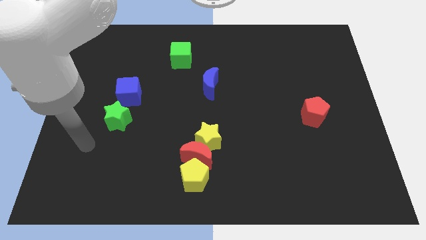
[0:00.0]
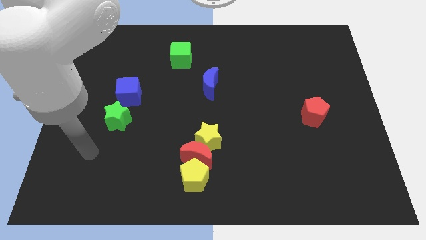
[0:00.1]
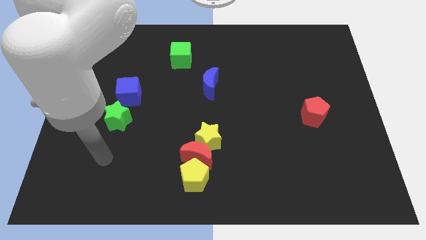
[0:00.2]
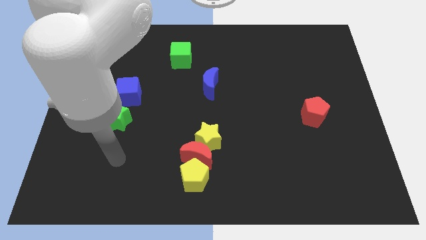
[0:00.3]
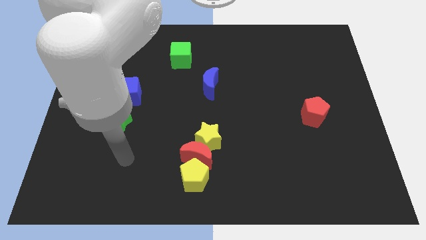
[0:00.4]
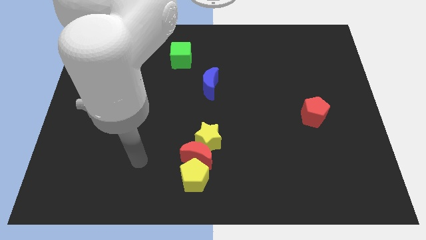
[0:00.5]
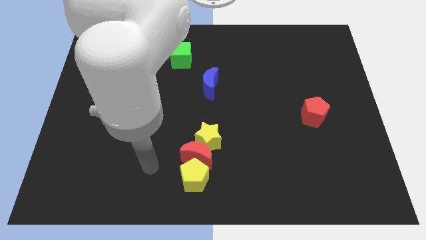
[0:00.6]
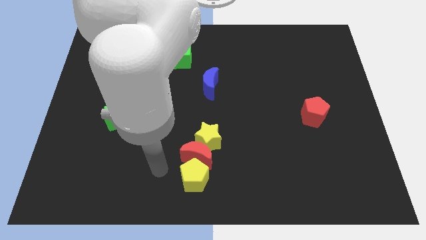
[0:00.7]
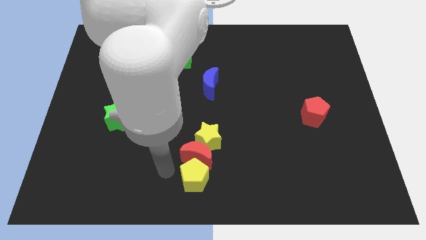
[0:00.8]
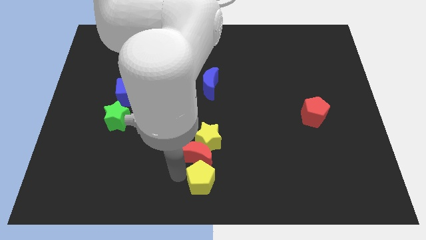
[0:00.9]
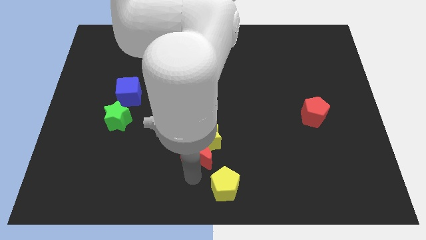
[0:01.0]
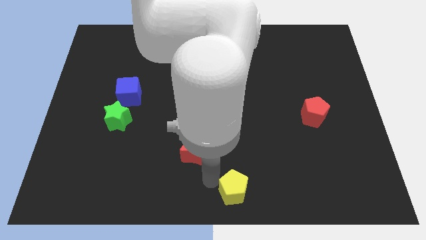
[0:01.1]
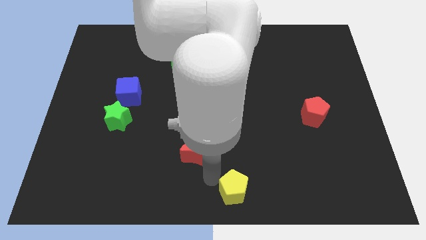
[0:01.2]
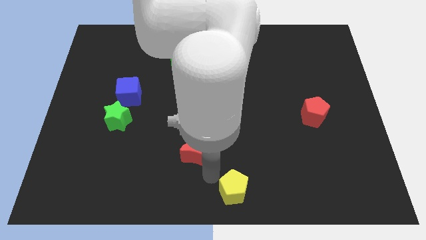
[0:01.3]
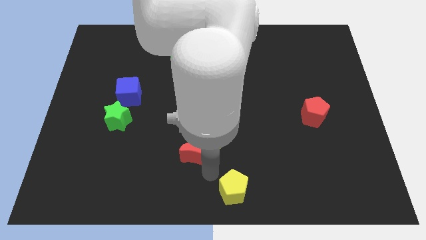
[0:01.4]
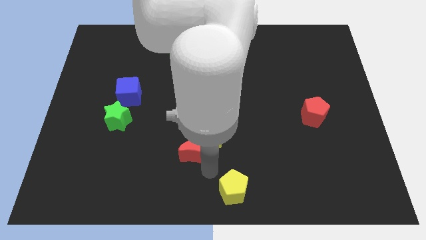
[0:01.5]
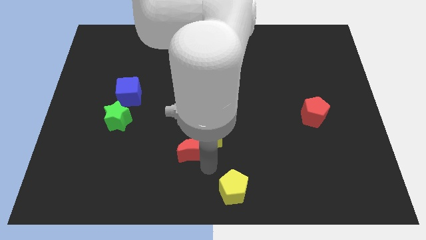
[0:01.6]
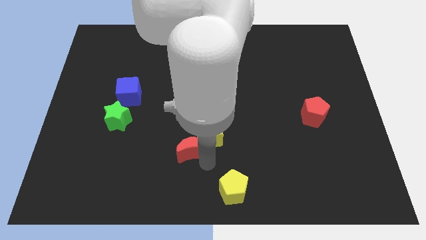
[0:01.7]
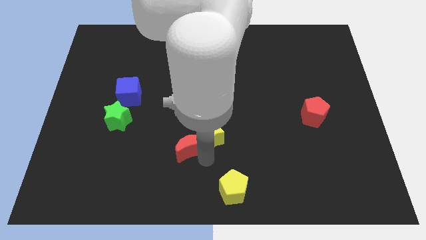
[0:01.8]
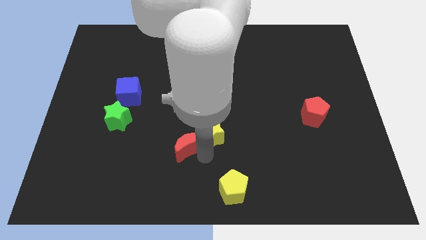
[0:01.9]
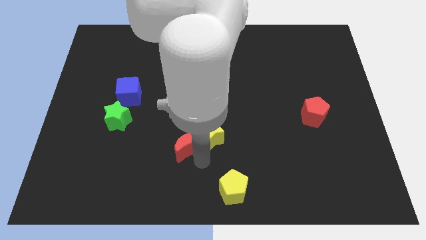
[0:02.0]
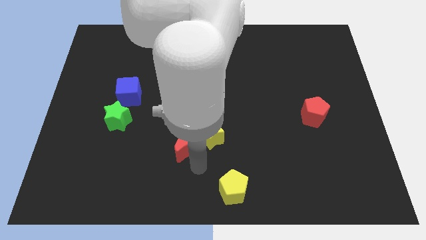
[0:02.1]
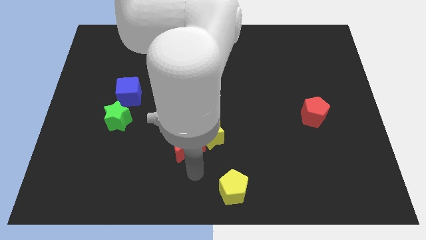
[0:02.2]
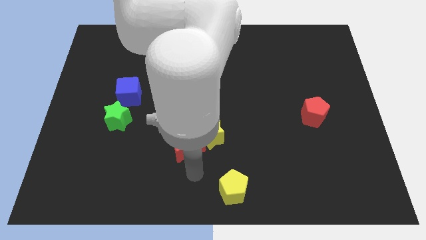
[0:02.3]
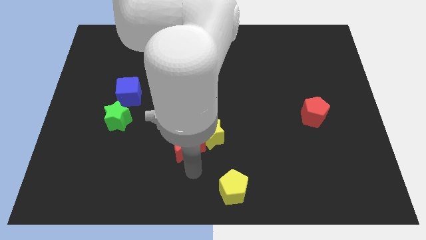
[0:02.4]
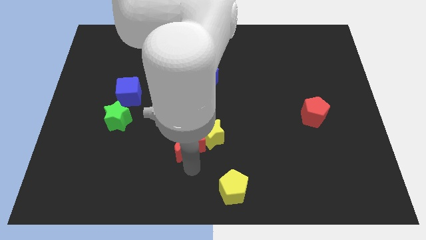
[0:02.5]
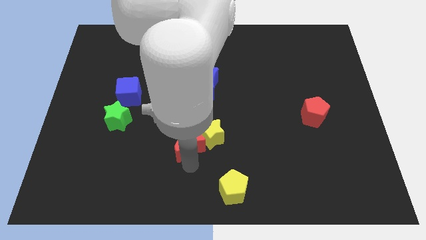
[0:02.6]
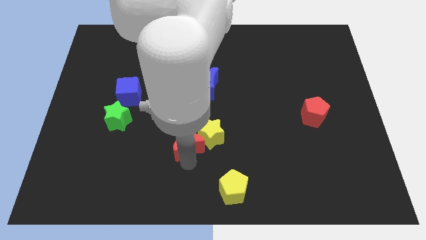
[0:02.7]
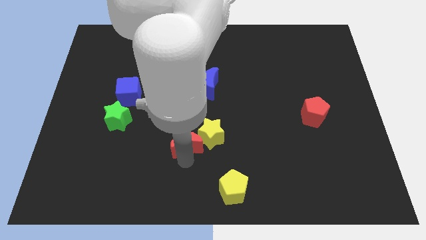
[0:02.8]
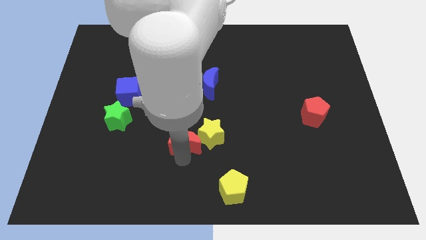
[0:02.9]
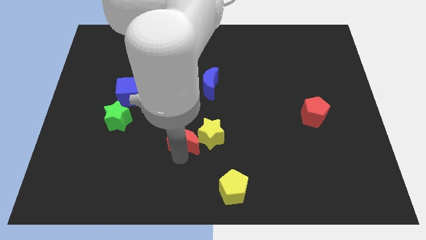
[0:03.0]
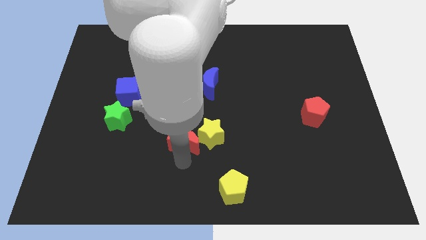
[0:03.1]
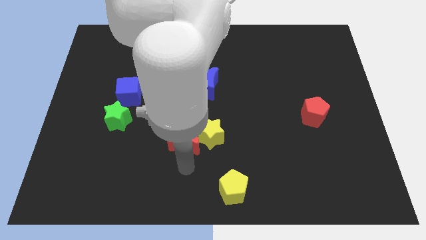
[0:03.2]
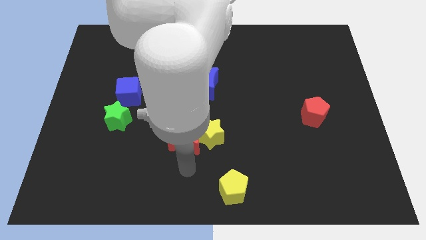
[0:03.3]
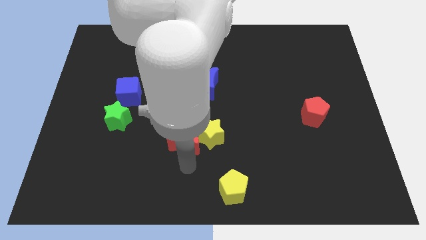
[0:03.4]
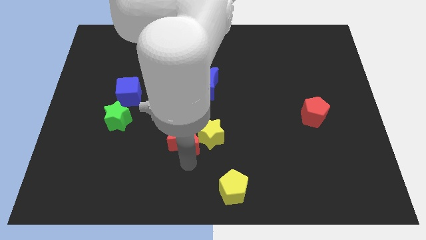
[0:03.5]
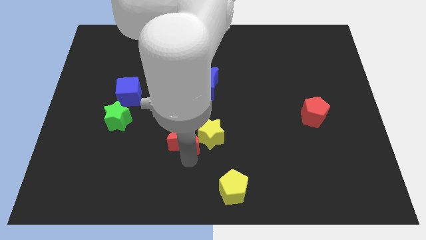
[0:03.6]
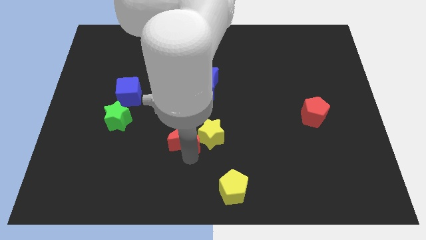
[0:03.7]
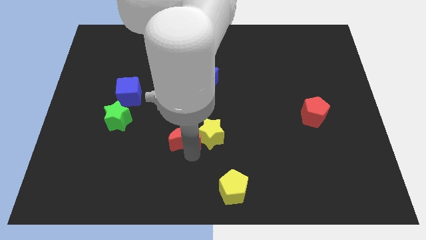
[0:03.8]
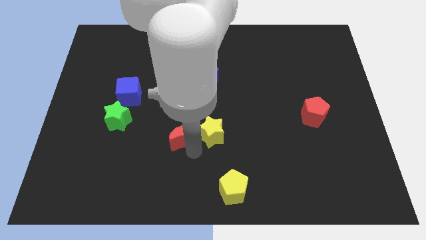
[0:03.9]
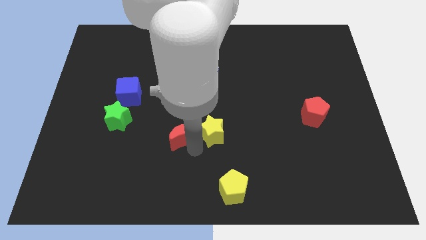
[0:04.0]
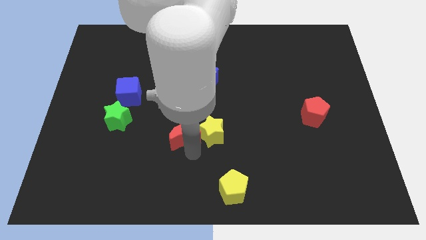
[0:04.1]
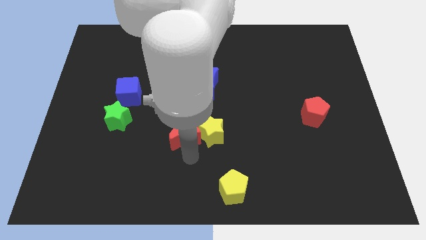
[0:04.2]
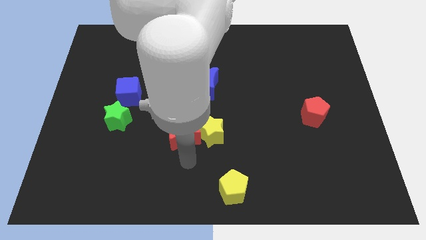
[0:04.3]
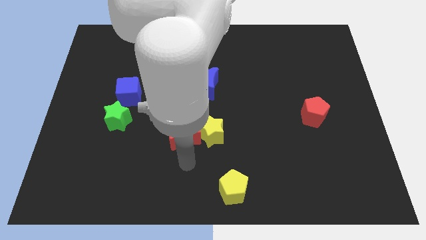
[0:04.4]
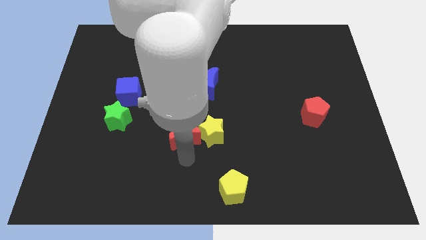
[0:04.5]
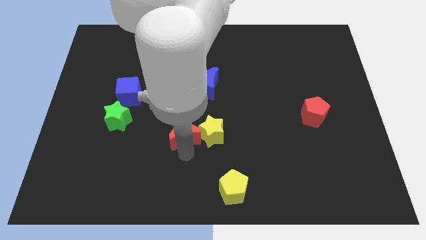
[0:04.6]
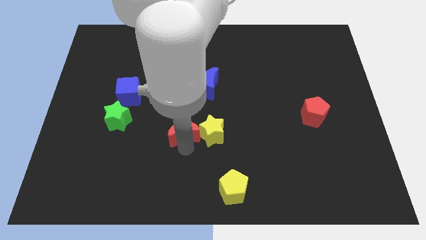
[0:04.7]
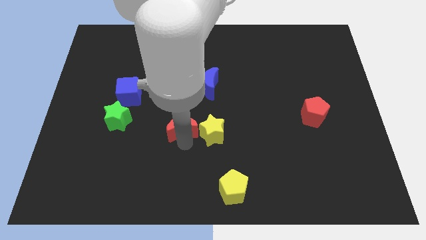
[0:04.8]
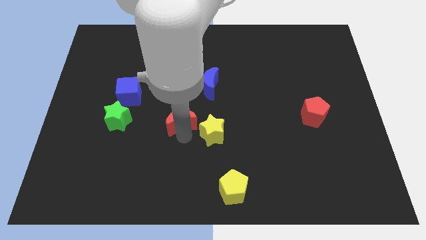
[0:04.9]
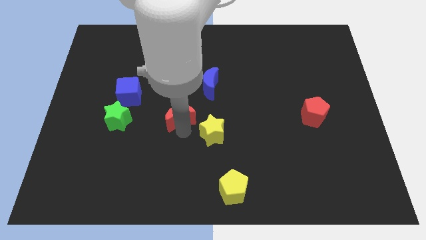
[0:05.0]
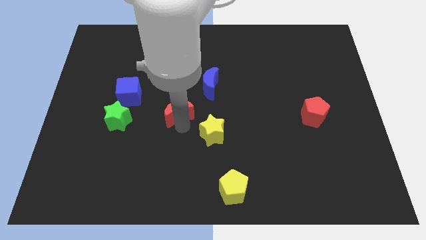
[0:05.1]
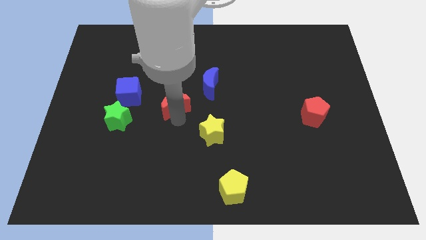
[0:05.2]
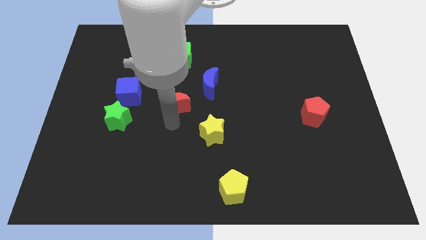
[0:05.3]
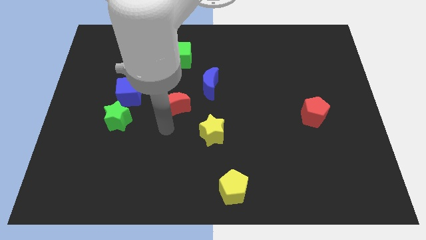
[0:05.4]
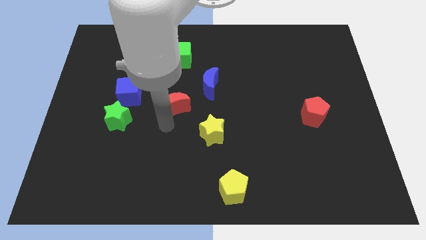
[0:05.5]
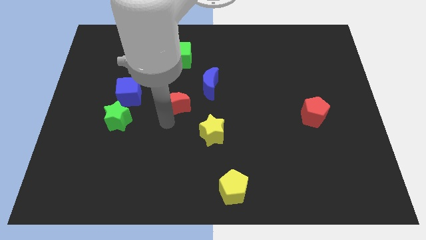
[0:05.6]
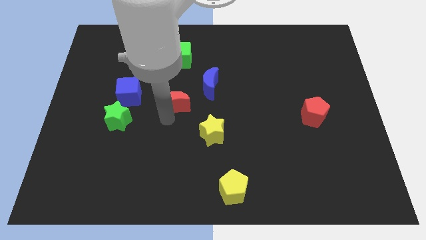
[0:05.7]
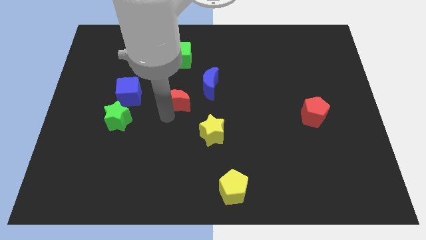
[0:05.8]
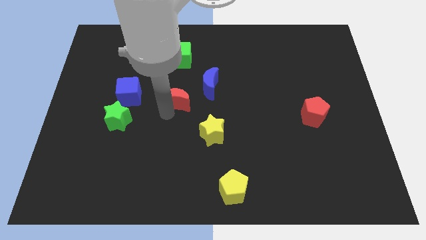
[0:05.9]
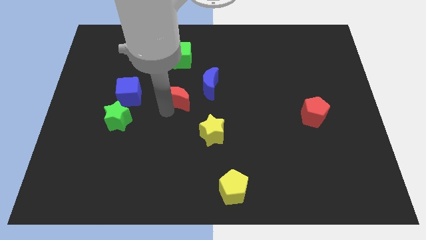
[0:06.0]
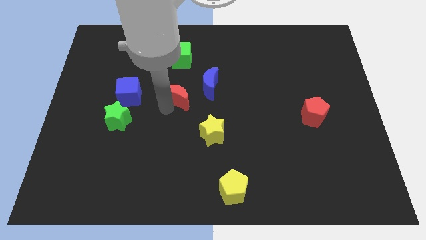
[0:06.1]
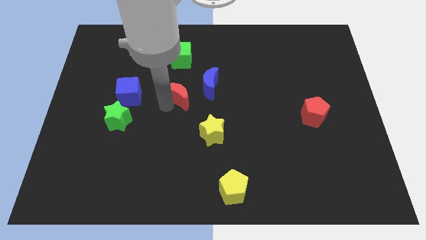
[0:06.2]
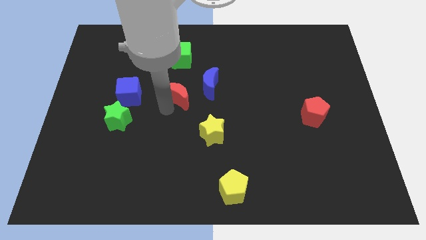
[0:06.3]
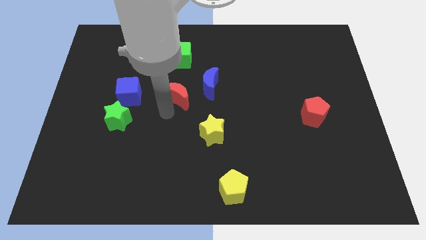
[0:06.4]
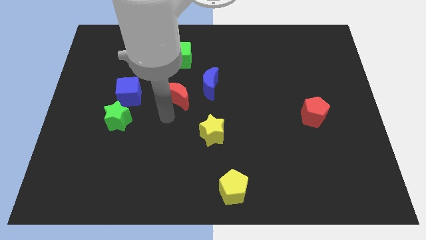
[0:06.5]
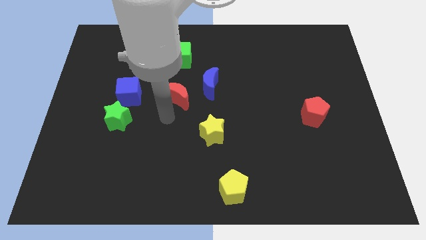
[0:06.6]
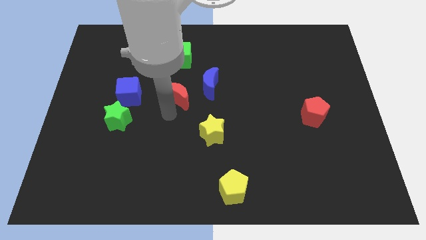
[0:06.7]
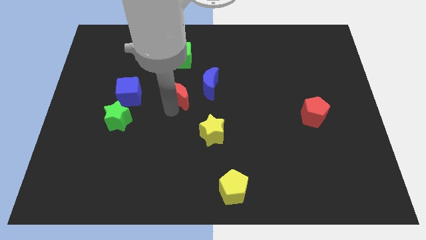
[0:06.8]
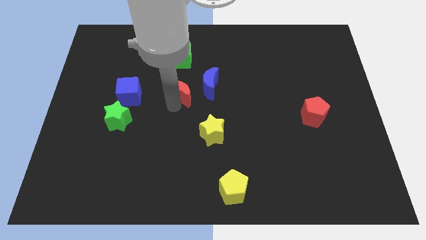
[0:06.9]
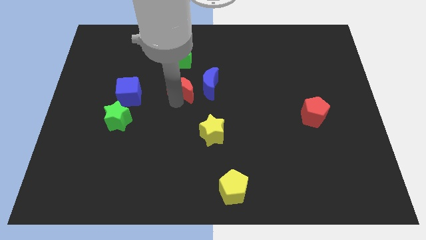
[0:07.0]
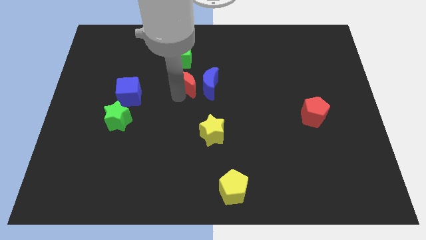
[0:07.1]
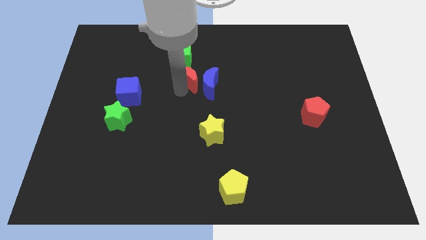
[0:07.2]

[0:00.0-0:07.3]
move the red moon to the bottom right of the green cube
